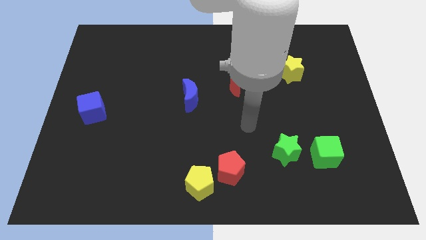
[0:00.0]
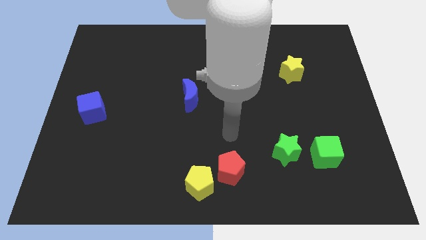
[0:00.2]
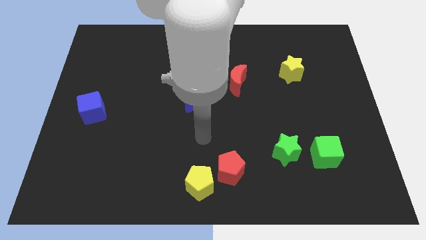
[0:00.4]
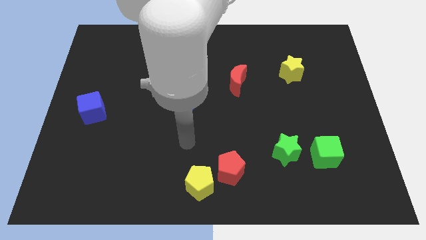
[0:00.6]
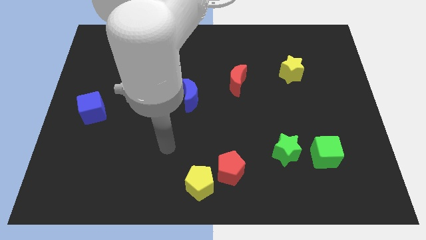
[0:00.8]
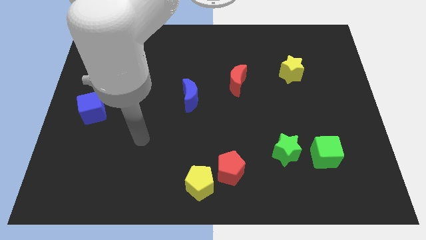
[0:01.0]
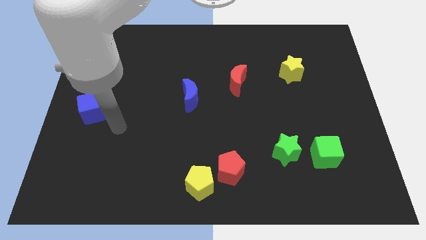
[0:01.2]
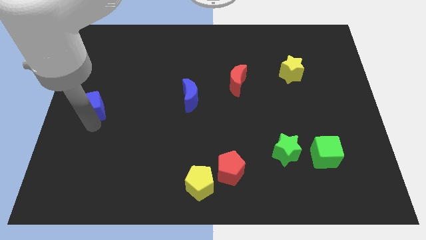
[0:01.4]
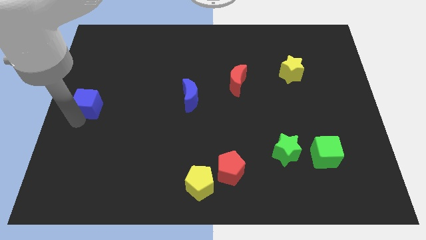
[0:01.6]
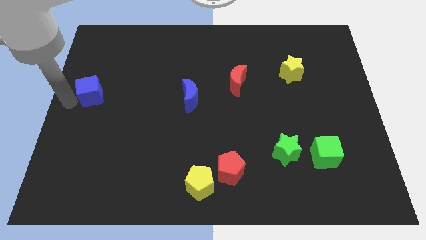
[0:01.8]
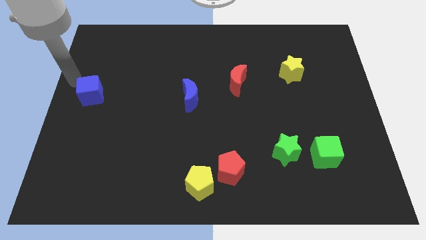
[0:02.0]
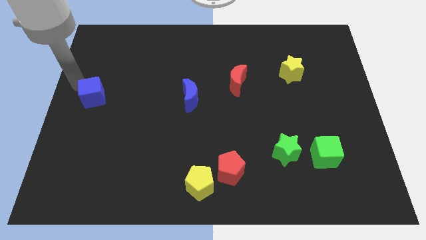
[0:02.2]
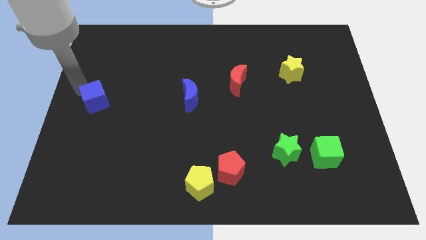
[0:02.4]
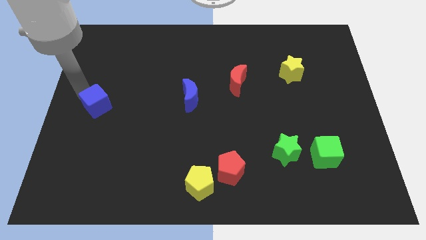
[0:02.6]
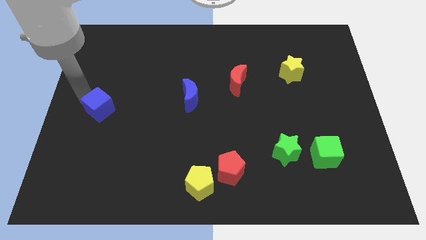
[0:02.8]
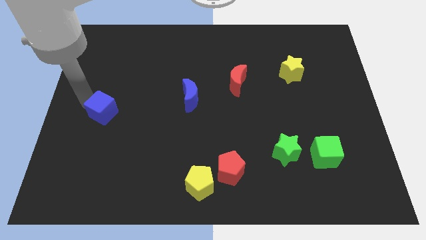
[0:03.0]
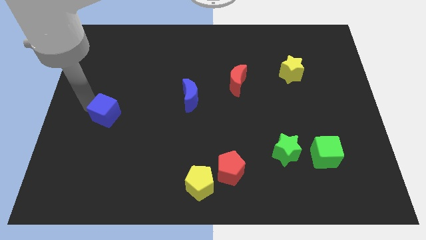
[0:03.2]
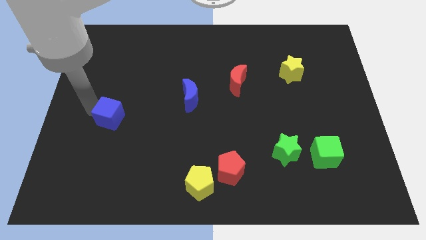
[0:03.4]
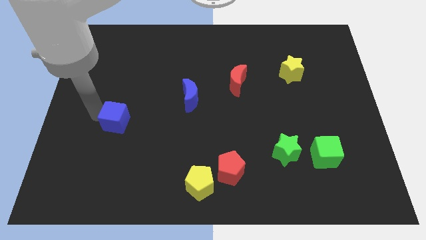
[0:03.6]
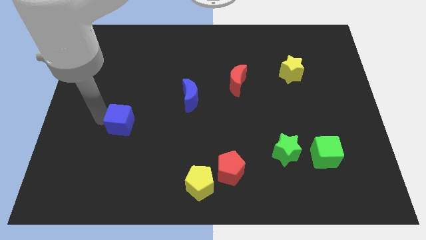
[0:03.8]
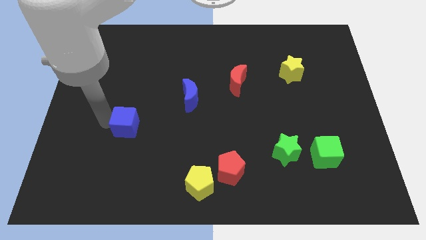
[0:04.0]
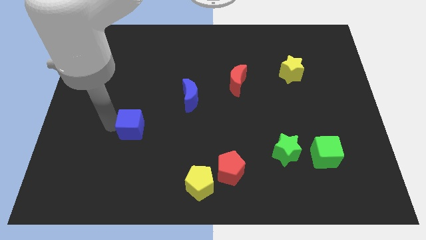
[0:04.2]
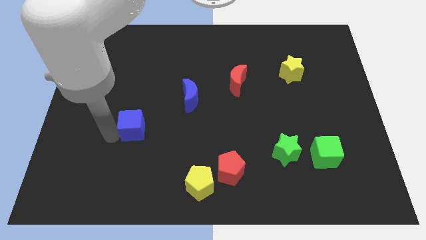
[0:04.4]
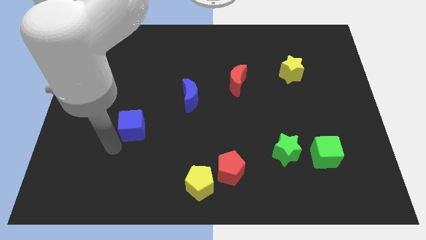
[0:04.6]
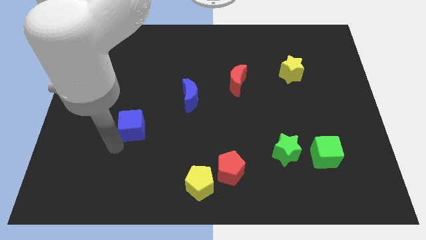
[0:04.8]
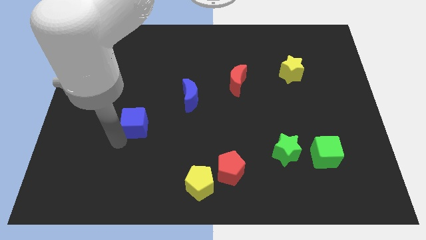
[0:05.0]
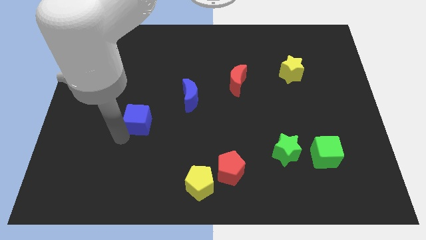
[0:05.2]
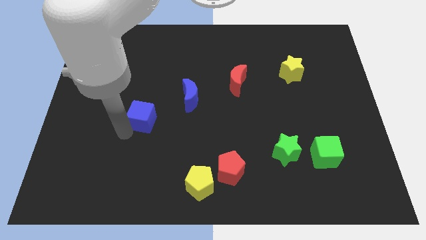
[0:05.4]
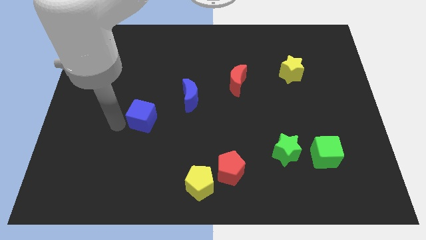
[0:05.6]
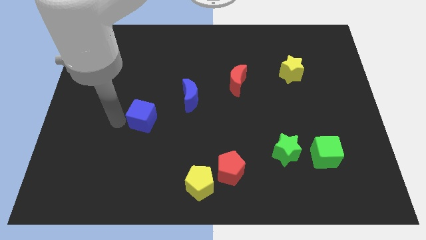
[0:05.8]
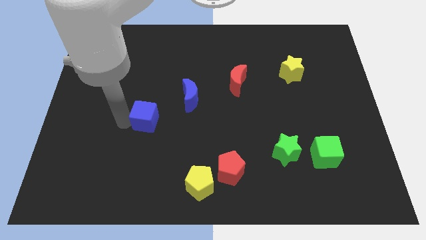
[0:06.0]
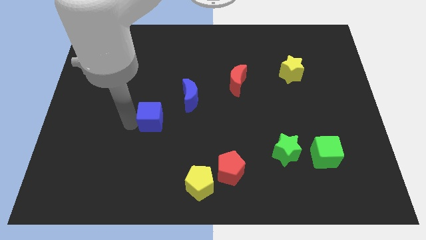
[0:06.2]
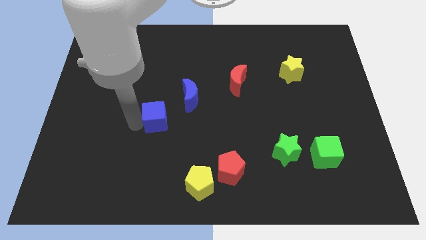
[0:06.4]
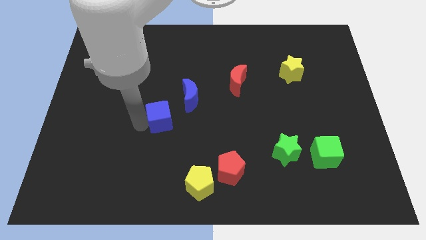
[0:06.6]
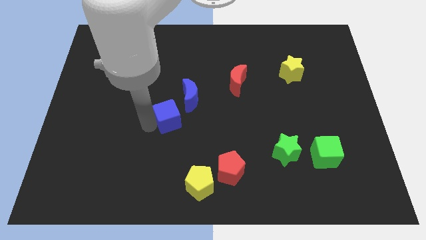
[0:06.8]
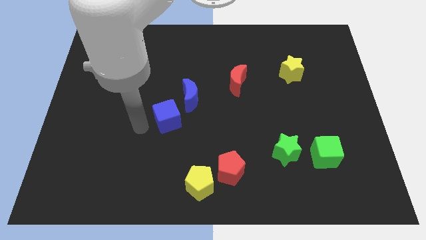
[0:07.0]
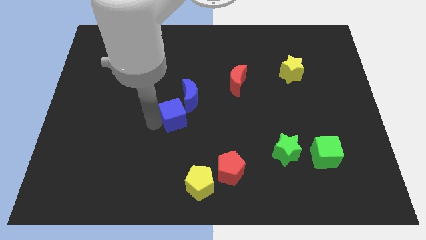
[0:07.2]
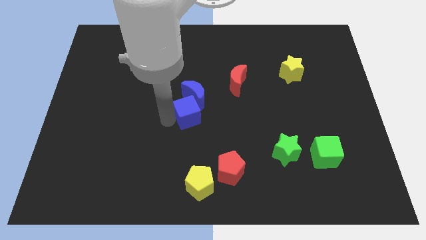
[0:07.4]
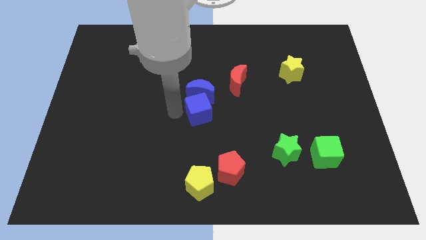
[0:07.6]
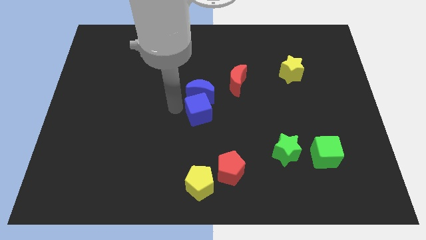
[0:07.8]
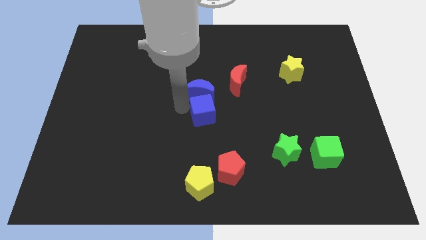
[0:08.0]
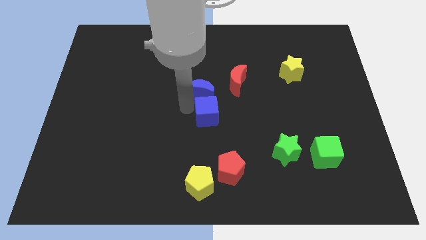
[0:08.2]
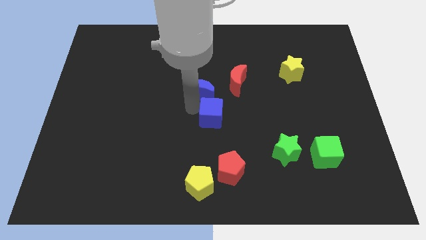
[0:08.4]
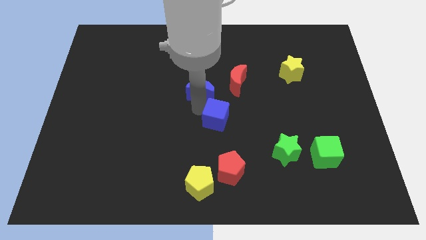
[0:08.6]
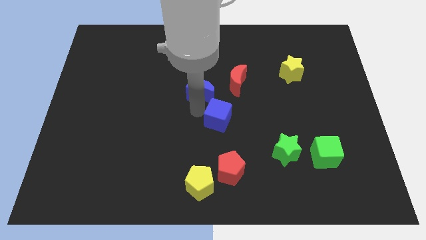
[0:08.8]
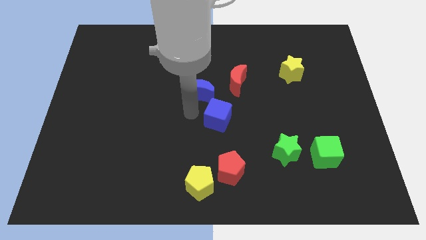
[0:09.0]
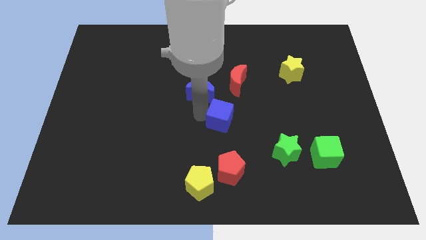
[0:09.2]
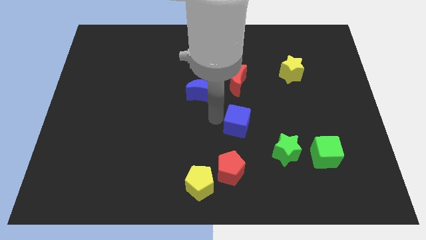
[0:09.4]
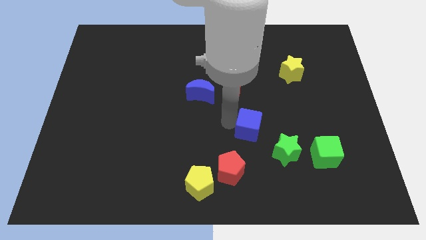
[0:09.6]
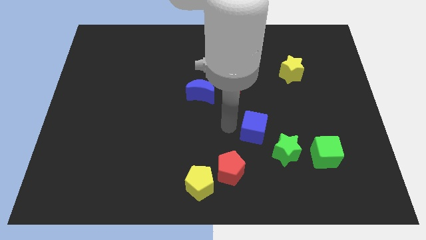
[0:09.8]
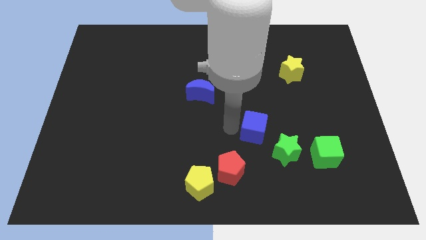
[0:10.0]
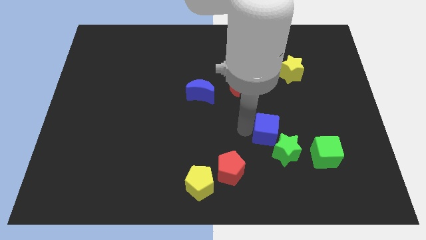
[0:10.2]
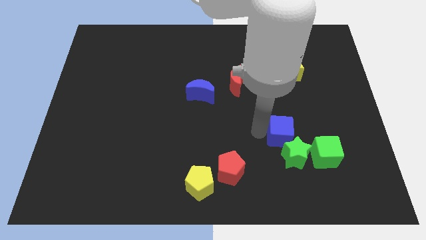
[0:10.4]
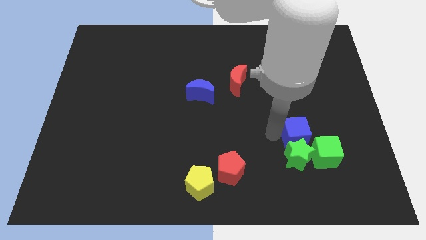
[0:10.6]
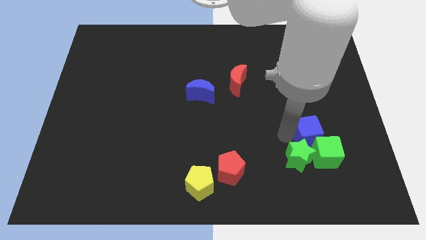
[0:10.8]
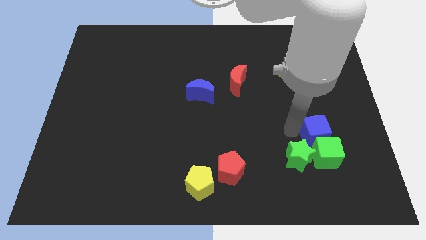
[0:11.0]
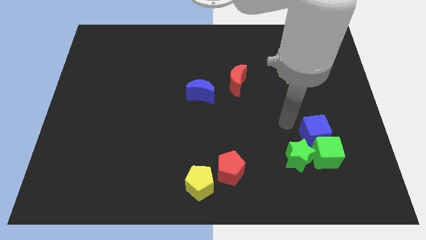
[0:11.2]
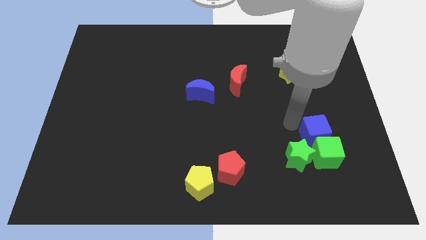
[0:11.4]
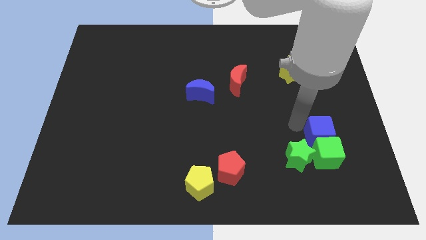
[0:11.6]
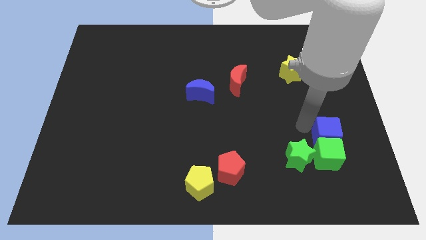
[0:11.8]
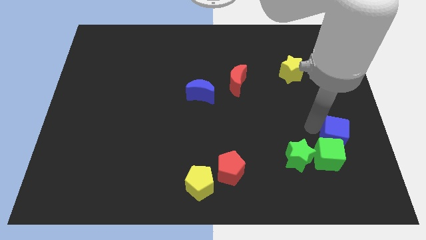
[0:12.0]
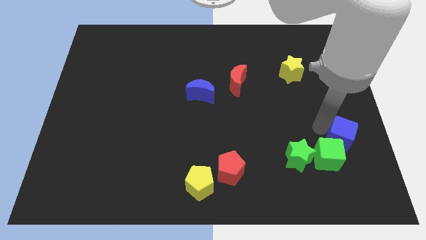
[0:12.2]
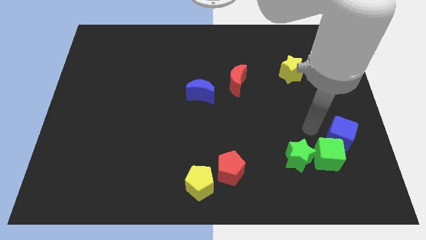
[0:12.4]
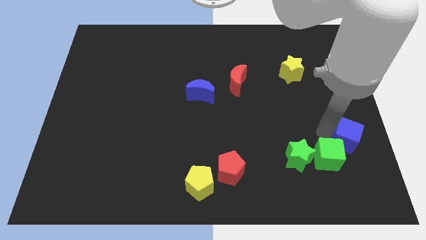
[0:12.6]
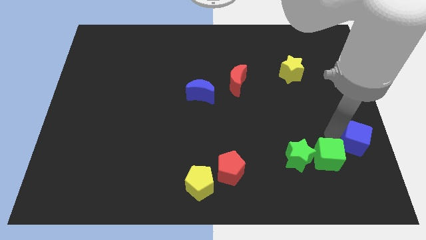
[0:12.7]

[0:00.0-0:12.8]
move the blue cube right of the green star

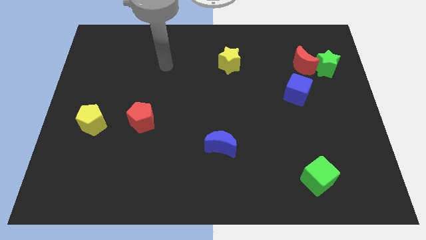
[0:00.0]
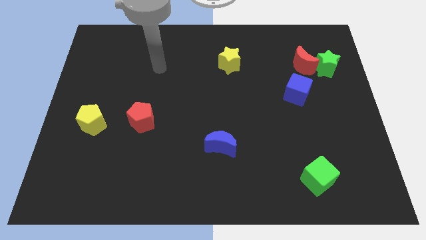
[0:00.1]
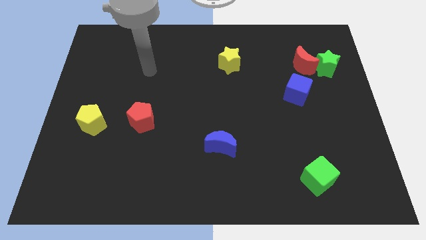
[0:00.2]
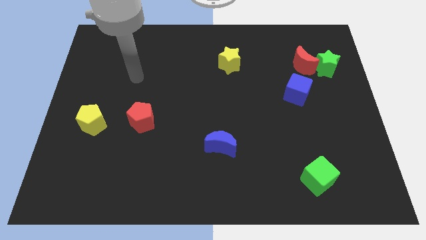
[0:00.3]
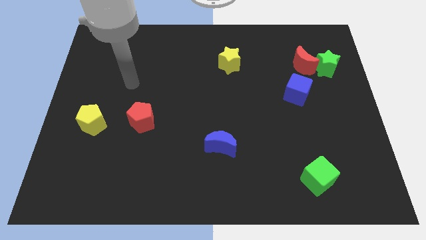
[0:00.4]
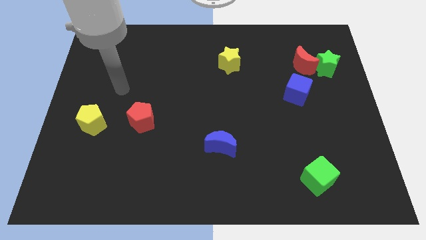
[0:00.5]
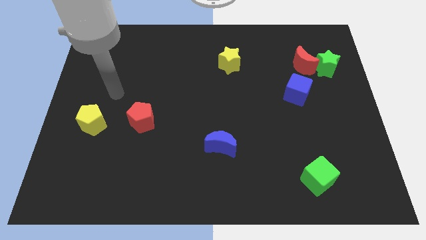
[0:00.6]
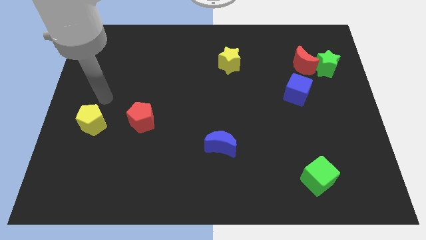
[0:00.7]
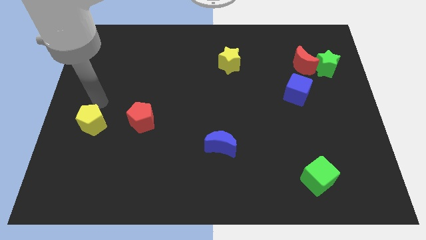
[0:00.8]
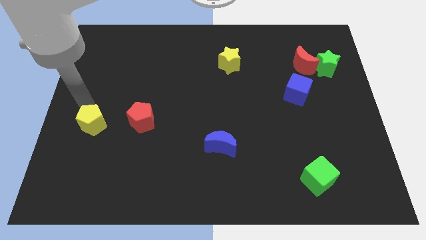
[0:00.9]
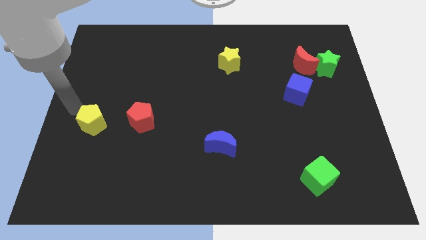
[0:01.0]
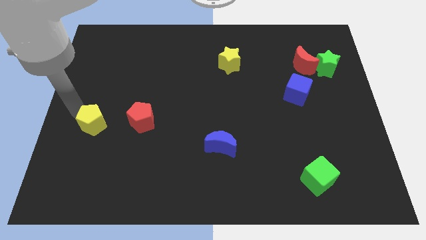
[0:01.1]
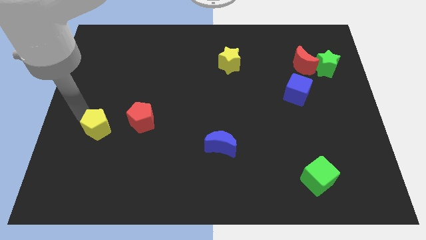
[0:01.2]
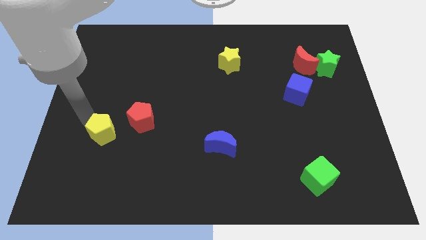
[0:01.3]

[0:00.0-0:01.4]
move the yellow pentagon to the bottom left side of the red pentagon
